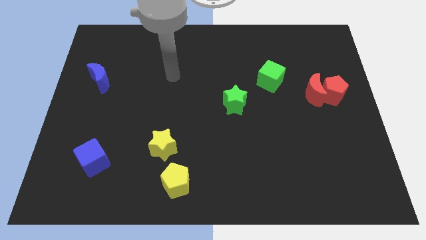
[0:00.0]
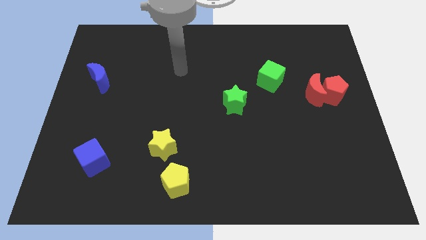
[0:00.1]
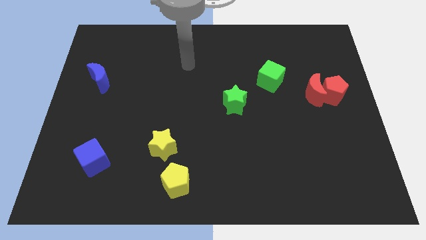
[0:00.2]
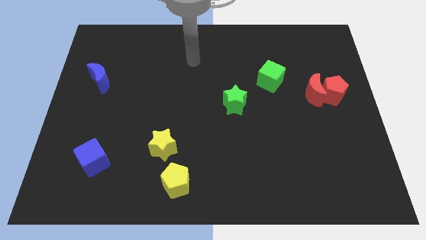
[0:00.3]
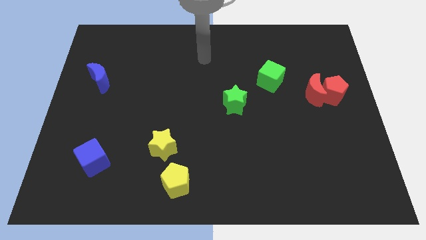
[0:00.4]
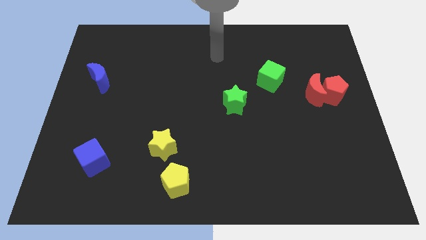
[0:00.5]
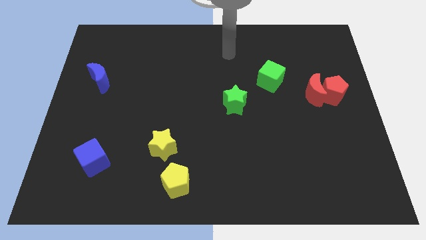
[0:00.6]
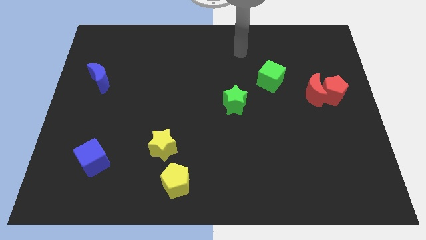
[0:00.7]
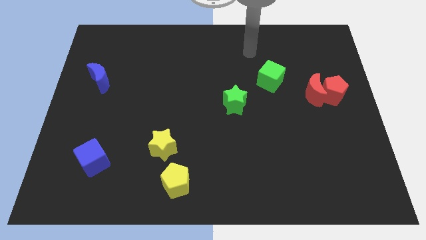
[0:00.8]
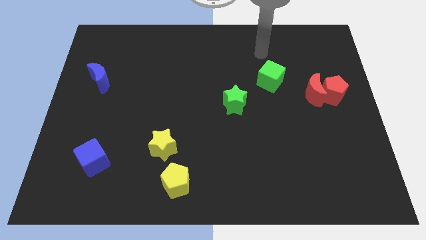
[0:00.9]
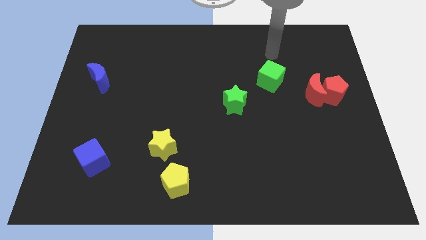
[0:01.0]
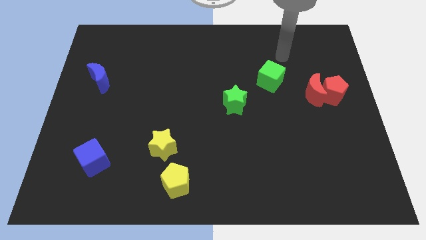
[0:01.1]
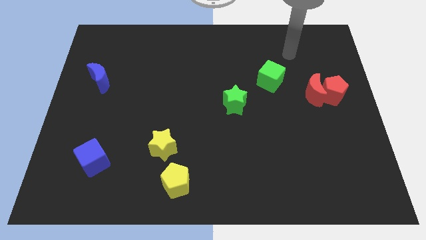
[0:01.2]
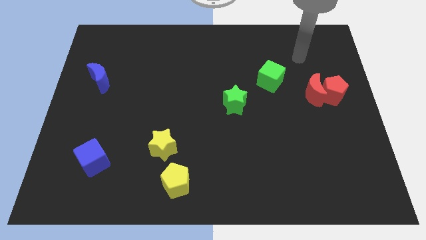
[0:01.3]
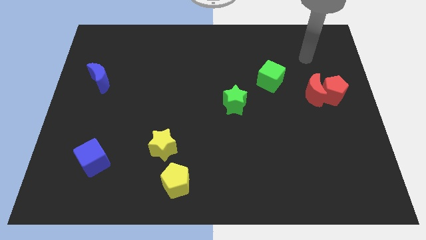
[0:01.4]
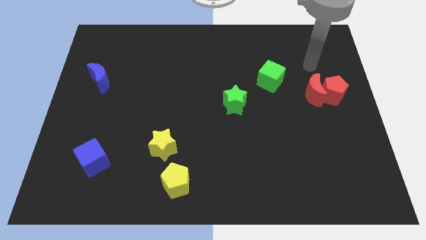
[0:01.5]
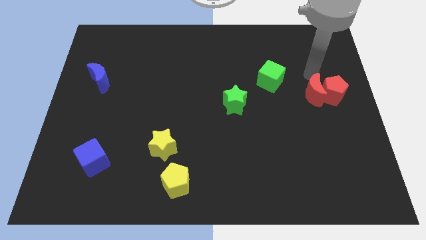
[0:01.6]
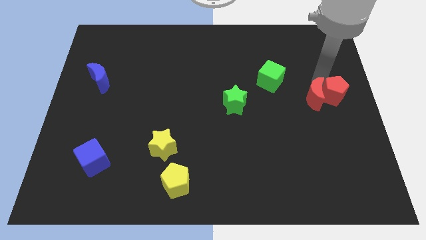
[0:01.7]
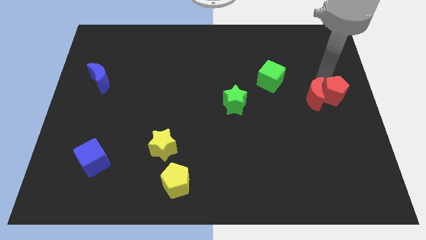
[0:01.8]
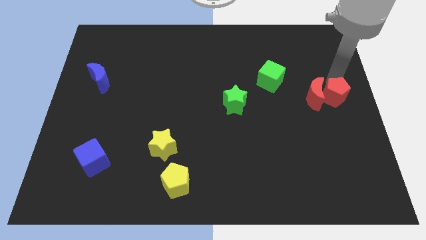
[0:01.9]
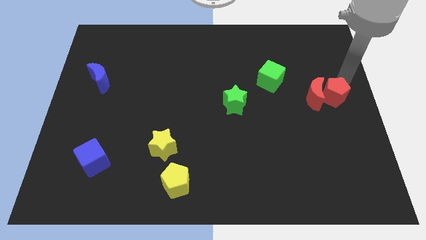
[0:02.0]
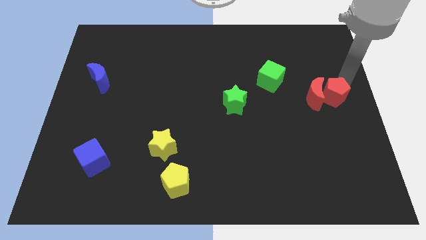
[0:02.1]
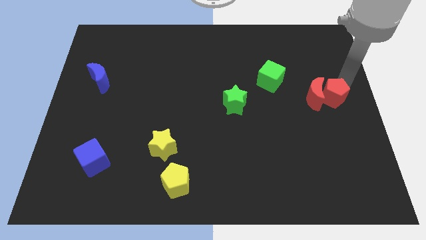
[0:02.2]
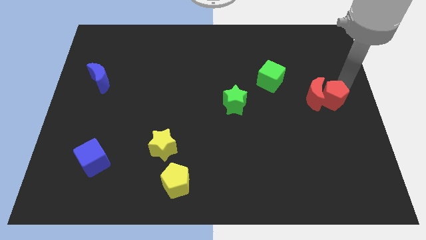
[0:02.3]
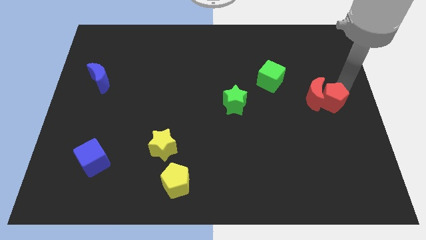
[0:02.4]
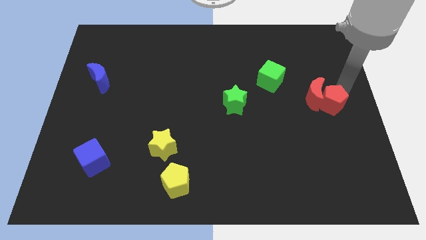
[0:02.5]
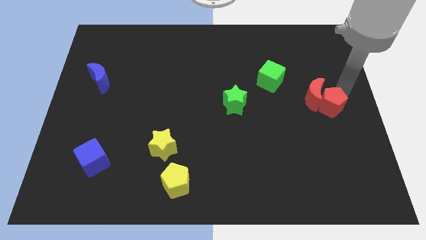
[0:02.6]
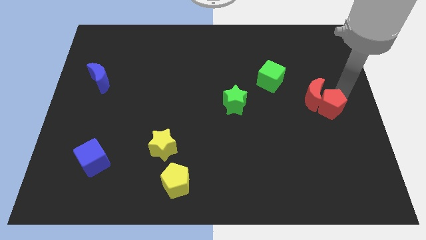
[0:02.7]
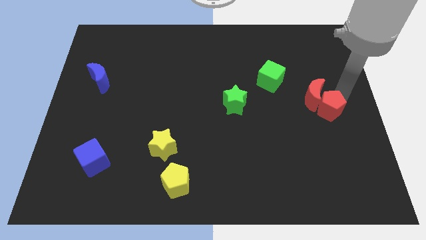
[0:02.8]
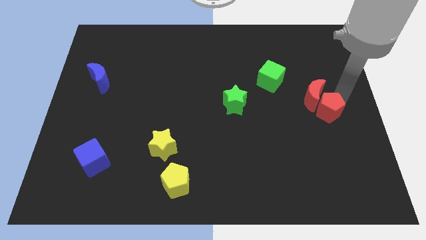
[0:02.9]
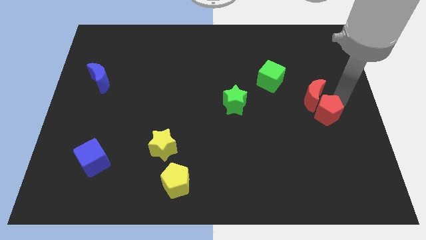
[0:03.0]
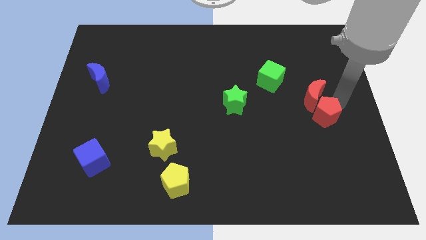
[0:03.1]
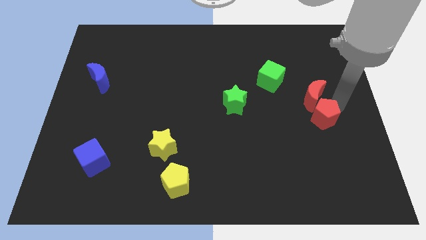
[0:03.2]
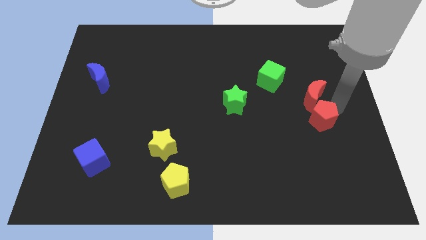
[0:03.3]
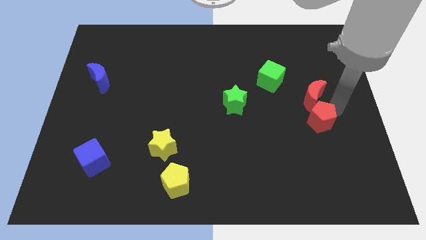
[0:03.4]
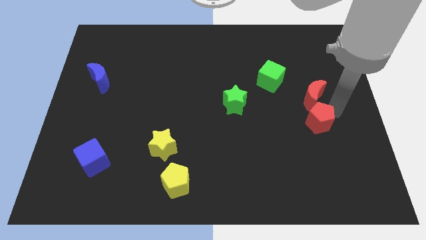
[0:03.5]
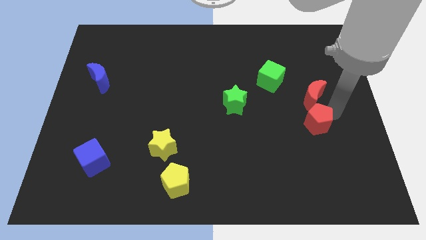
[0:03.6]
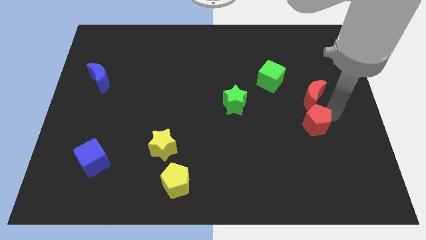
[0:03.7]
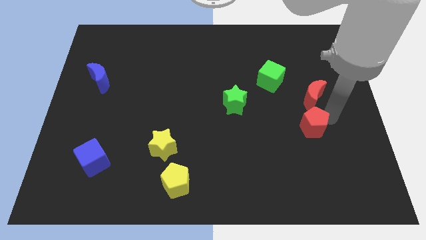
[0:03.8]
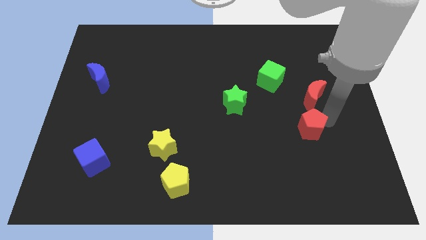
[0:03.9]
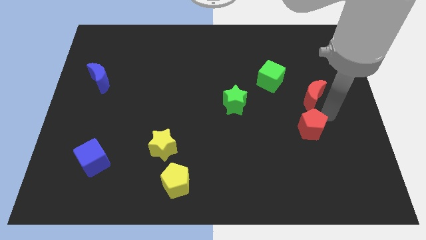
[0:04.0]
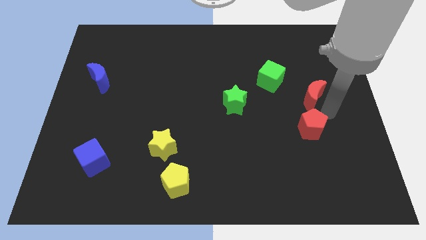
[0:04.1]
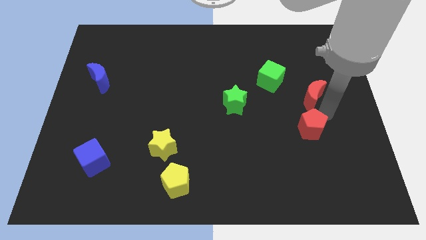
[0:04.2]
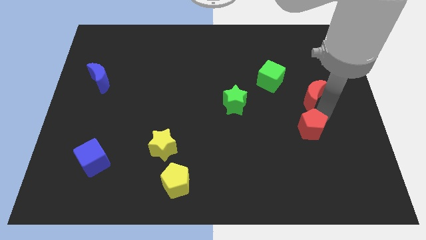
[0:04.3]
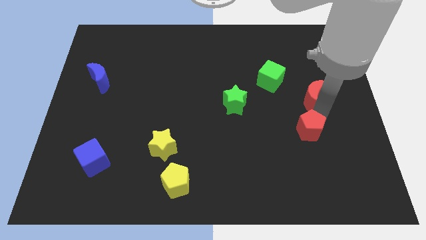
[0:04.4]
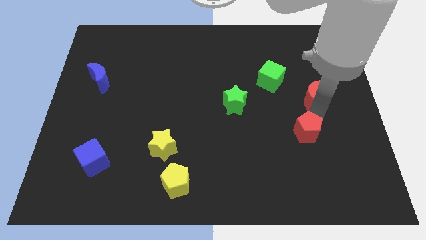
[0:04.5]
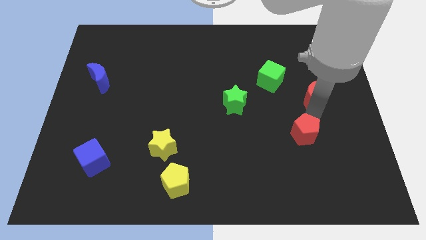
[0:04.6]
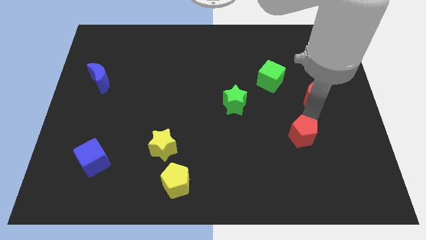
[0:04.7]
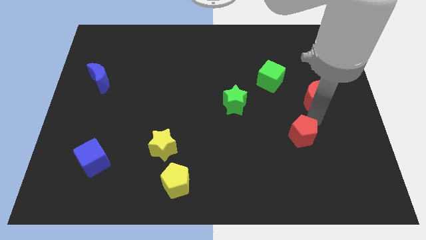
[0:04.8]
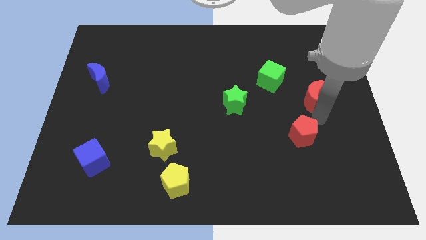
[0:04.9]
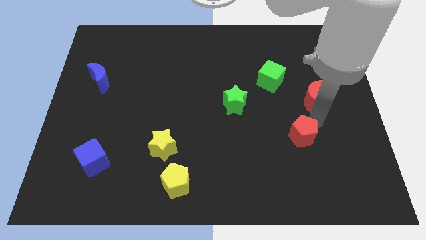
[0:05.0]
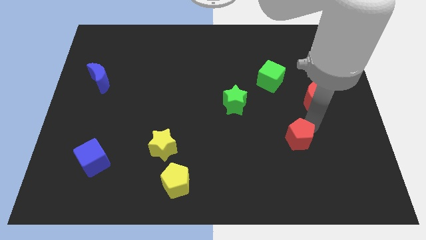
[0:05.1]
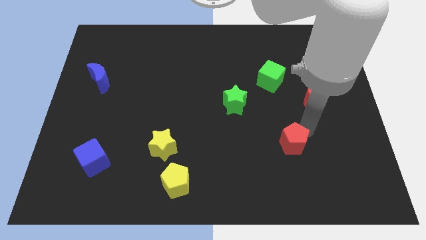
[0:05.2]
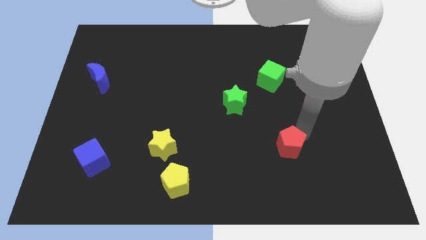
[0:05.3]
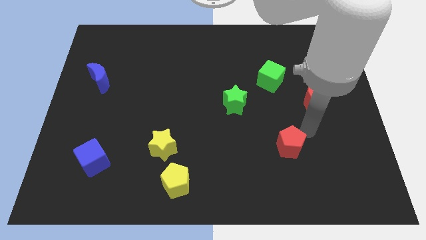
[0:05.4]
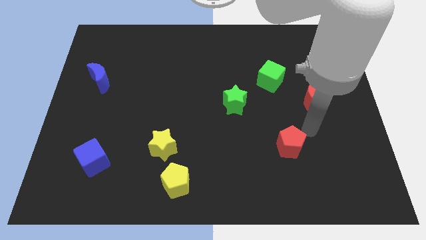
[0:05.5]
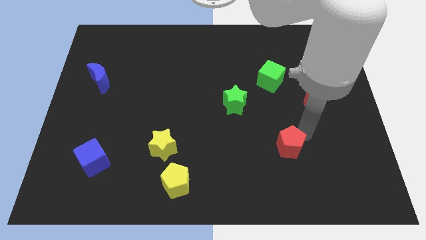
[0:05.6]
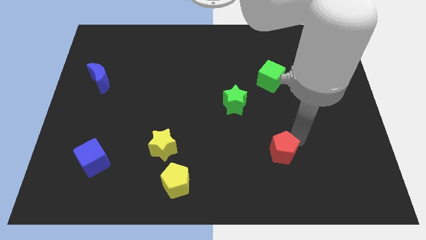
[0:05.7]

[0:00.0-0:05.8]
move the red pentagon diagonally downwards and to the left

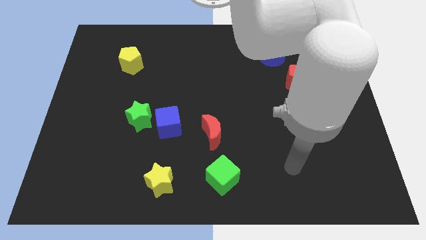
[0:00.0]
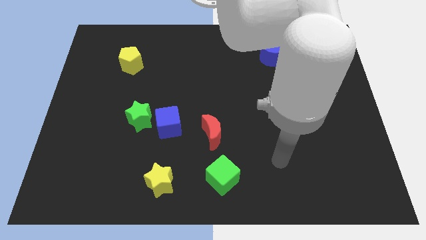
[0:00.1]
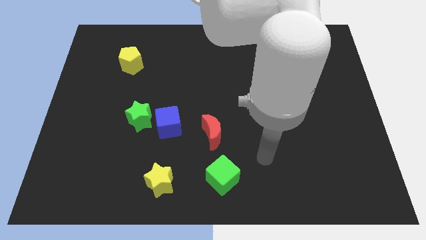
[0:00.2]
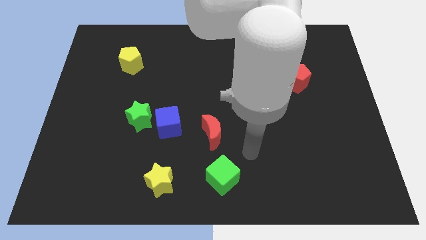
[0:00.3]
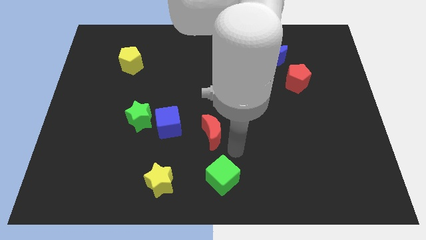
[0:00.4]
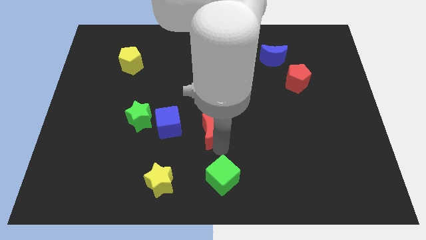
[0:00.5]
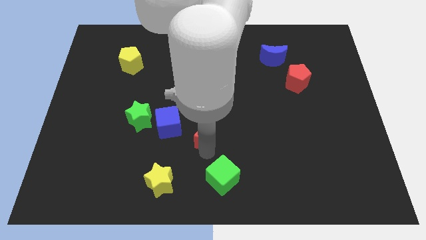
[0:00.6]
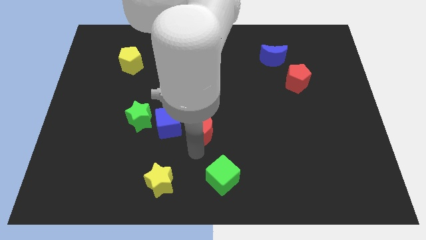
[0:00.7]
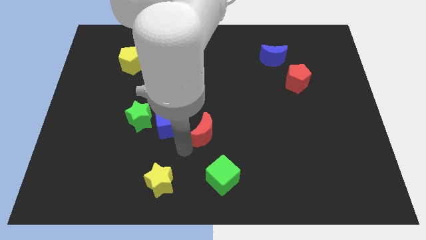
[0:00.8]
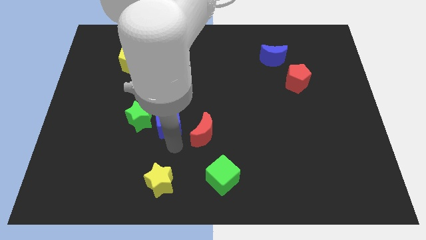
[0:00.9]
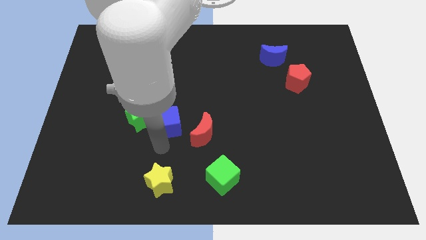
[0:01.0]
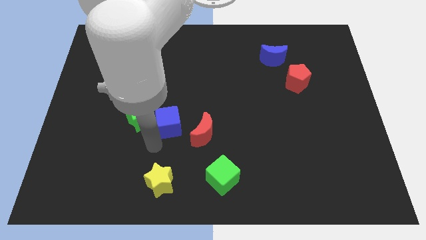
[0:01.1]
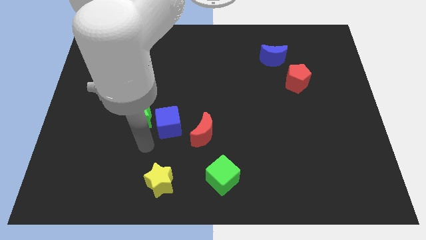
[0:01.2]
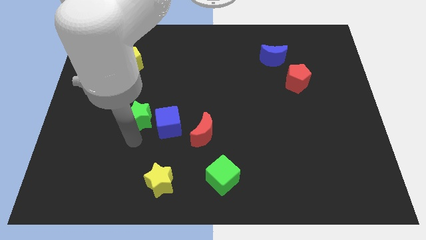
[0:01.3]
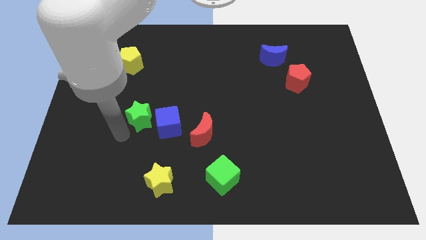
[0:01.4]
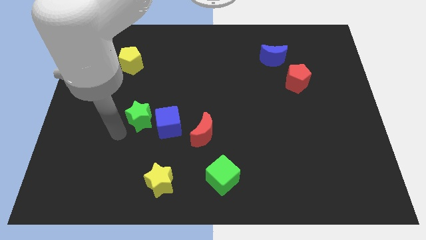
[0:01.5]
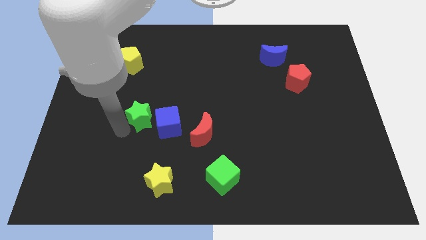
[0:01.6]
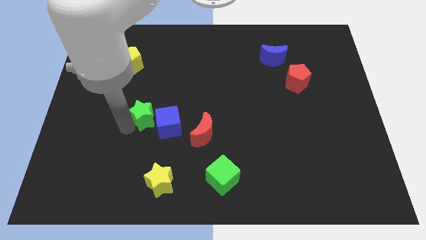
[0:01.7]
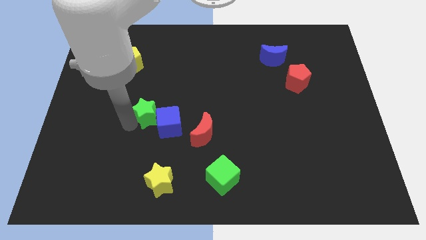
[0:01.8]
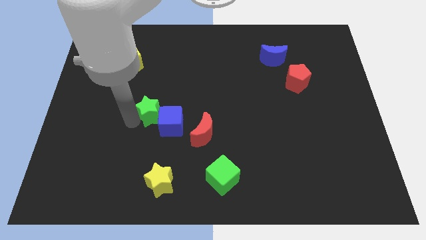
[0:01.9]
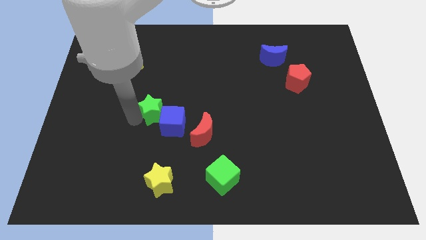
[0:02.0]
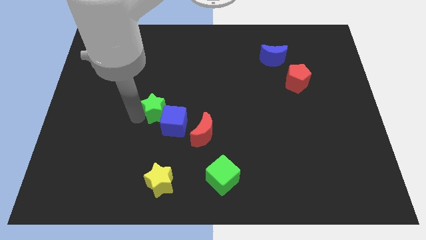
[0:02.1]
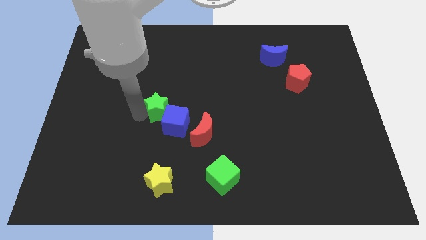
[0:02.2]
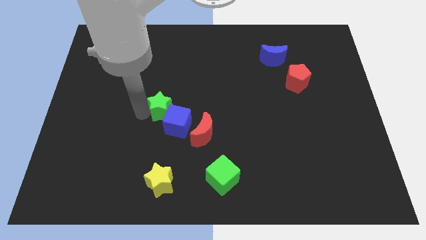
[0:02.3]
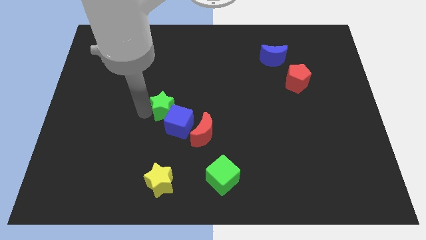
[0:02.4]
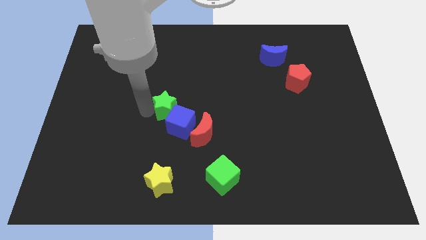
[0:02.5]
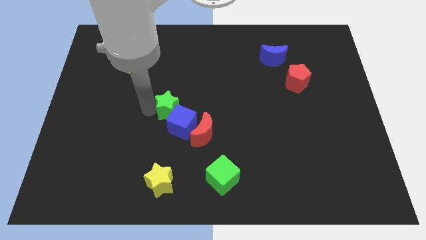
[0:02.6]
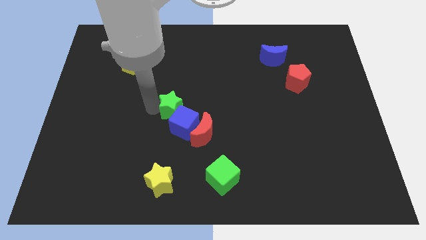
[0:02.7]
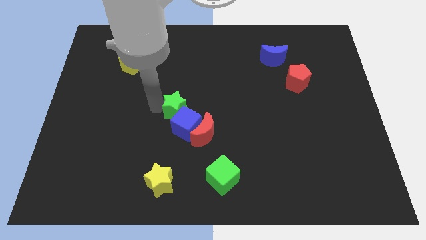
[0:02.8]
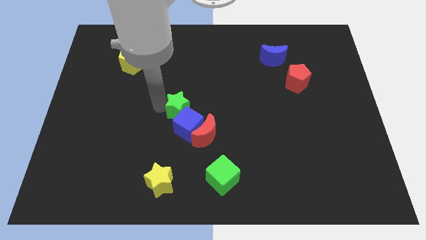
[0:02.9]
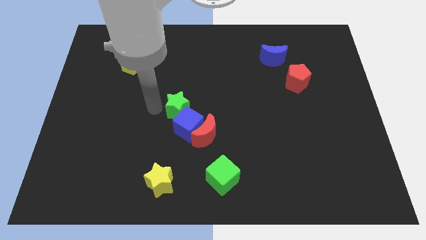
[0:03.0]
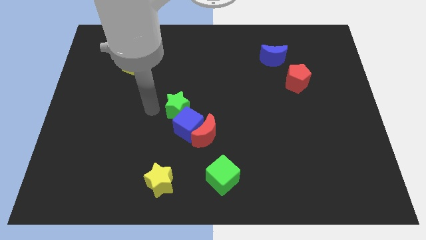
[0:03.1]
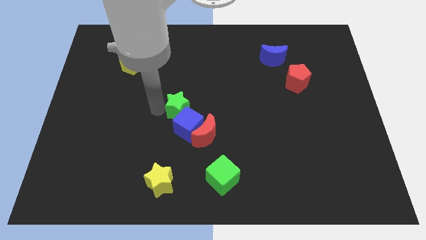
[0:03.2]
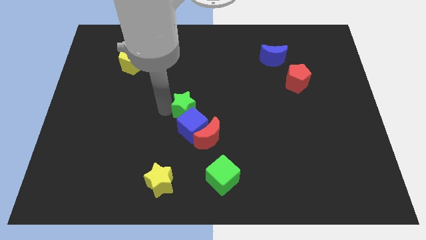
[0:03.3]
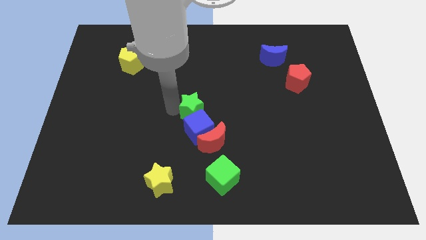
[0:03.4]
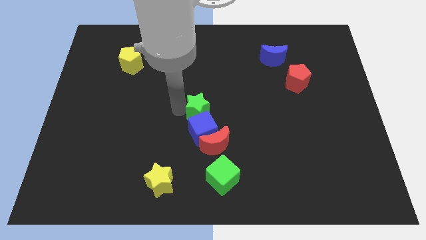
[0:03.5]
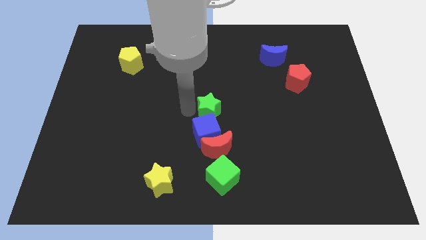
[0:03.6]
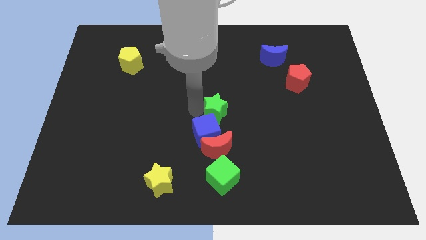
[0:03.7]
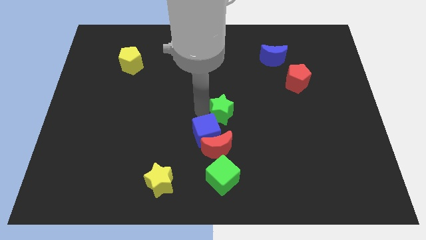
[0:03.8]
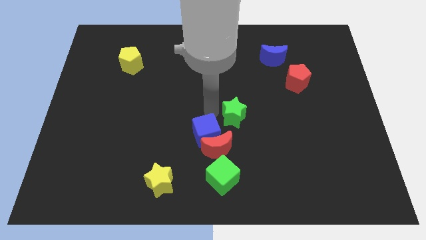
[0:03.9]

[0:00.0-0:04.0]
push the green star right
